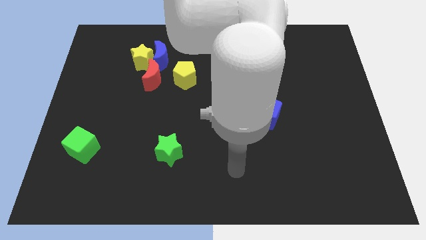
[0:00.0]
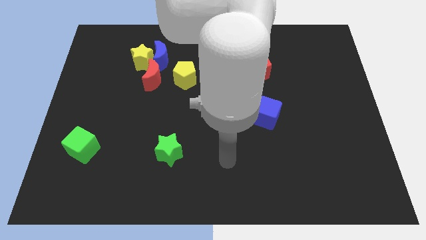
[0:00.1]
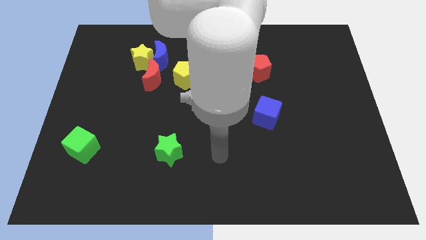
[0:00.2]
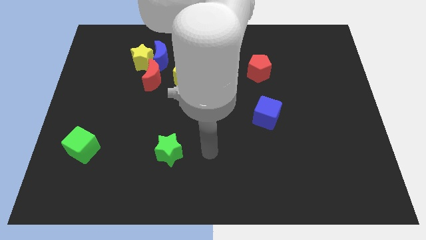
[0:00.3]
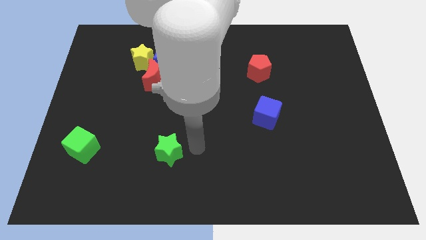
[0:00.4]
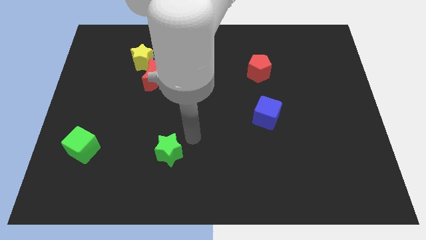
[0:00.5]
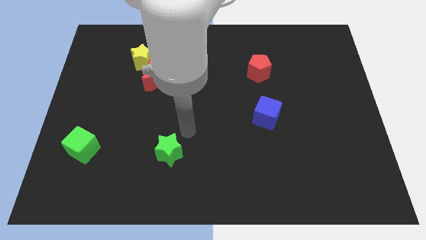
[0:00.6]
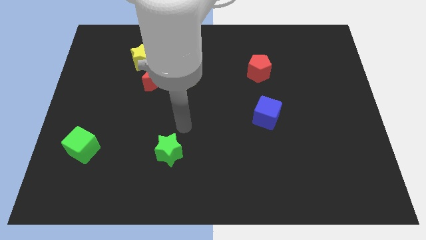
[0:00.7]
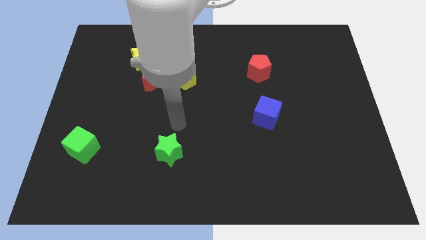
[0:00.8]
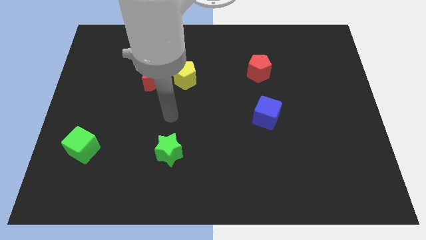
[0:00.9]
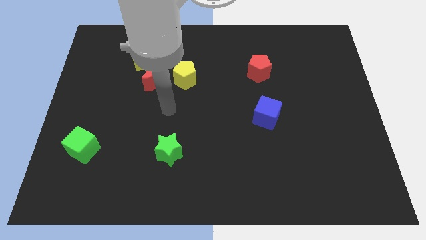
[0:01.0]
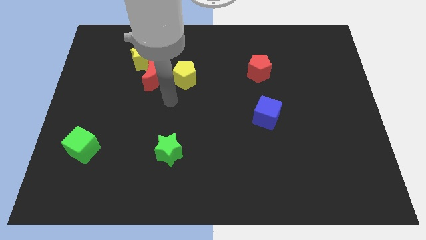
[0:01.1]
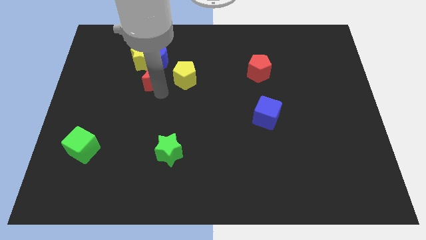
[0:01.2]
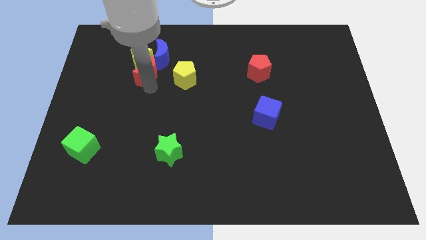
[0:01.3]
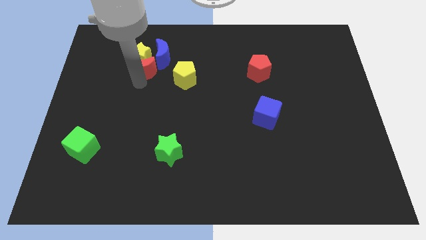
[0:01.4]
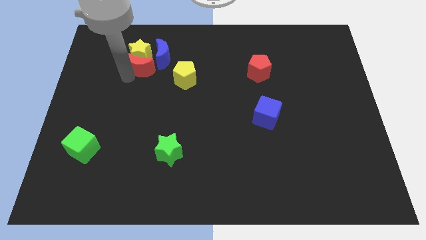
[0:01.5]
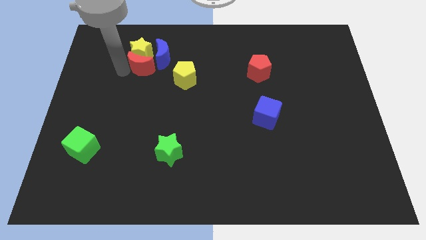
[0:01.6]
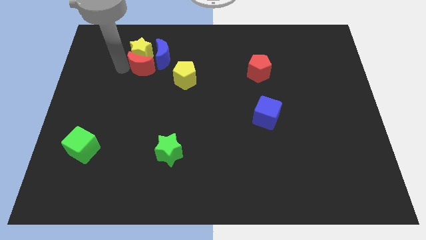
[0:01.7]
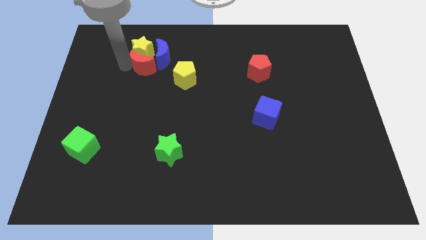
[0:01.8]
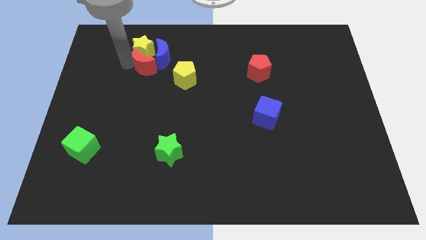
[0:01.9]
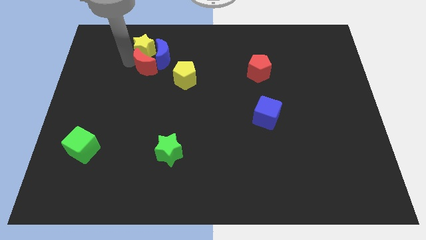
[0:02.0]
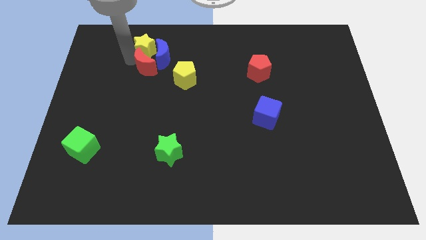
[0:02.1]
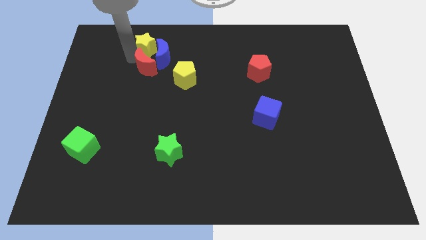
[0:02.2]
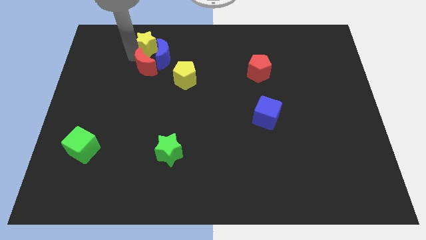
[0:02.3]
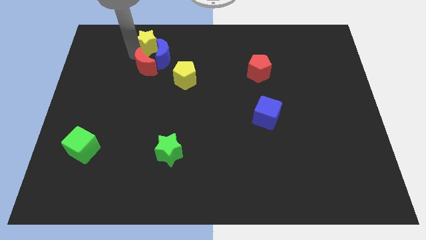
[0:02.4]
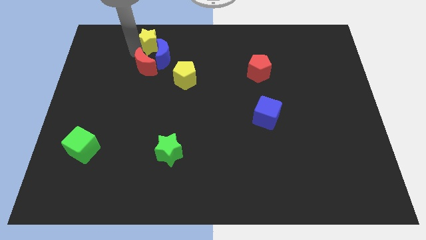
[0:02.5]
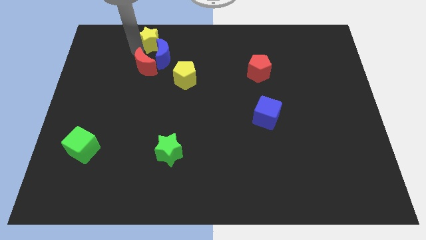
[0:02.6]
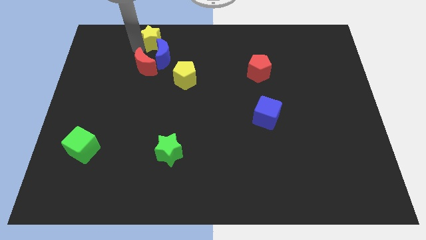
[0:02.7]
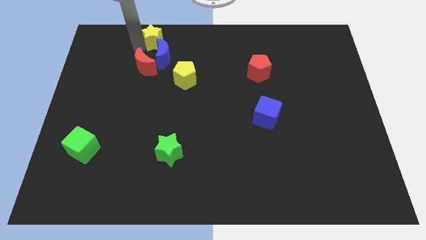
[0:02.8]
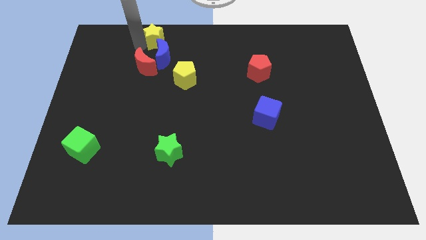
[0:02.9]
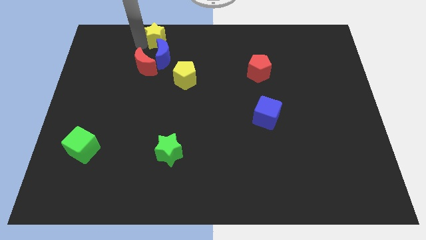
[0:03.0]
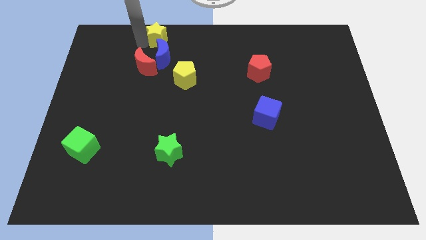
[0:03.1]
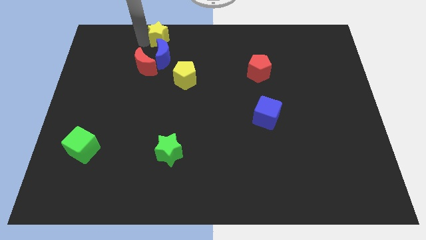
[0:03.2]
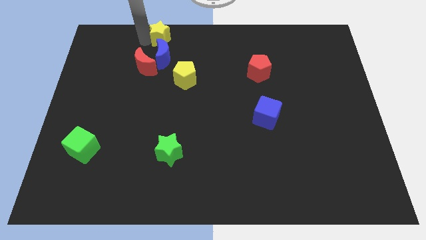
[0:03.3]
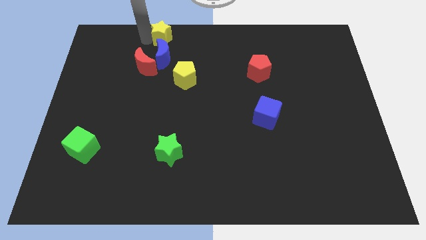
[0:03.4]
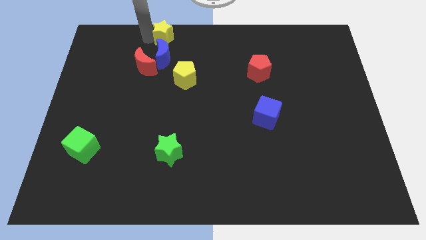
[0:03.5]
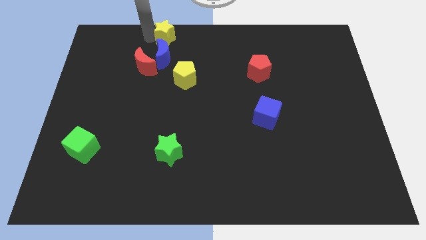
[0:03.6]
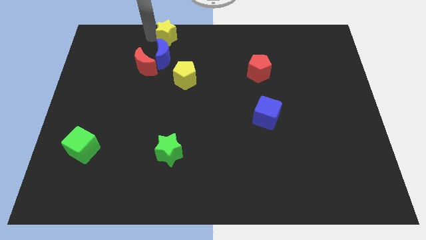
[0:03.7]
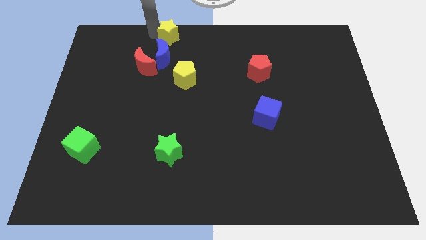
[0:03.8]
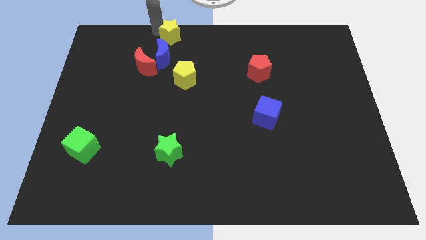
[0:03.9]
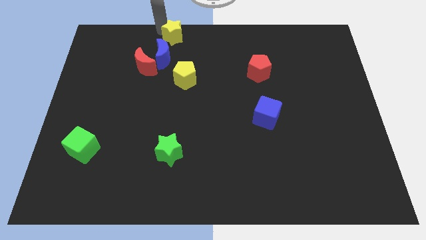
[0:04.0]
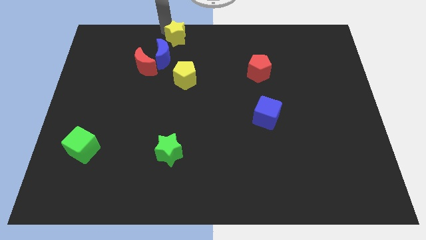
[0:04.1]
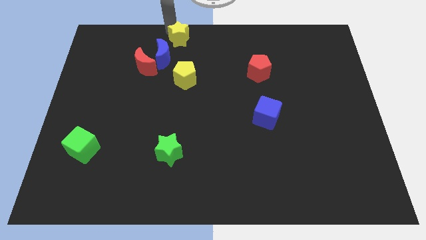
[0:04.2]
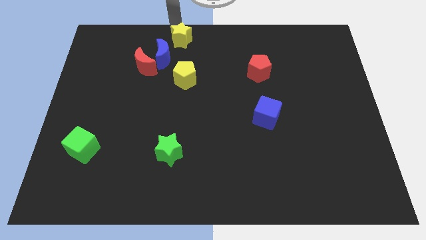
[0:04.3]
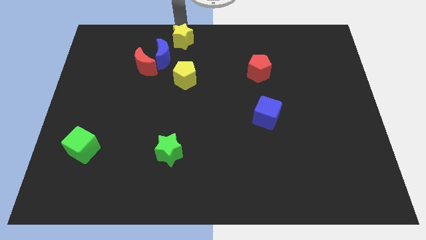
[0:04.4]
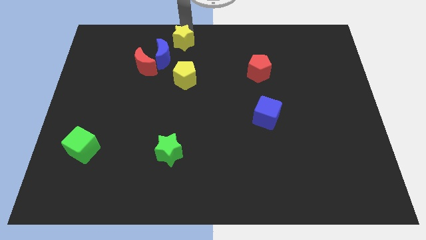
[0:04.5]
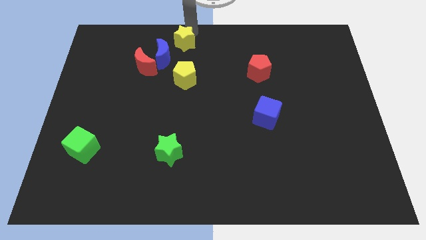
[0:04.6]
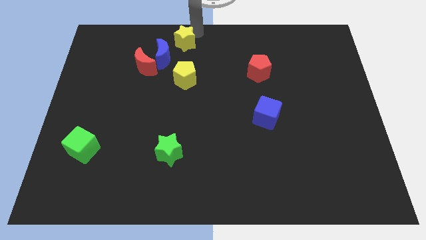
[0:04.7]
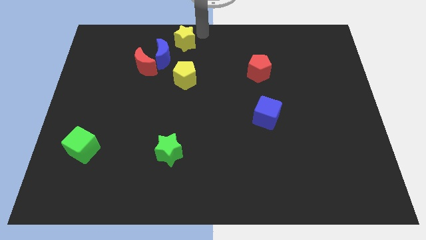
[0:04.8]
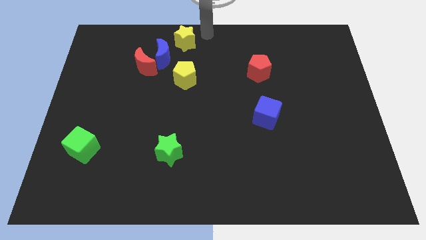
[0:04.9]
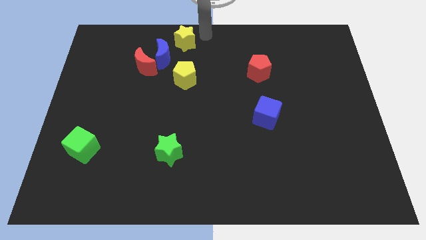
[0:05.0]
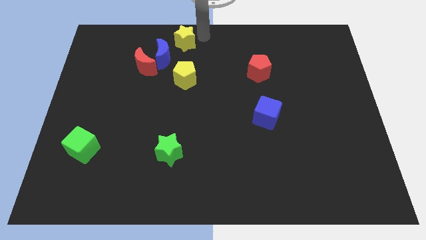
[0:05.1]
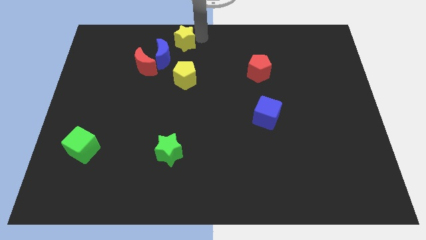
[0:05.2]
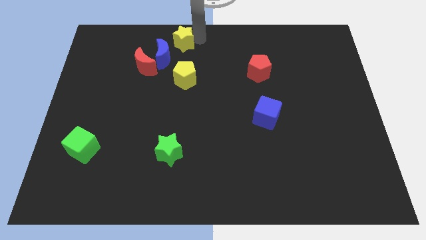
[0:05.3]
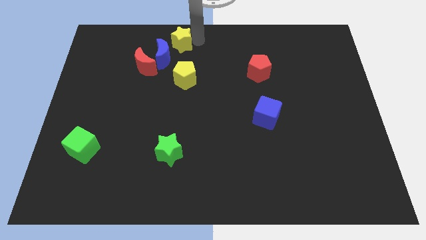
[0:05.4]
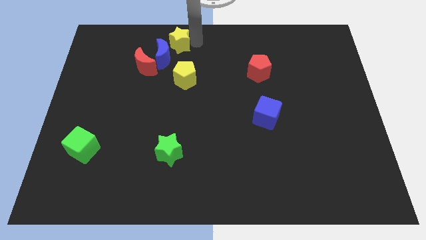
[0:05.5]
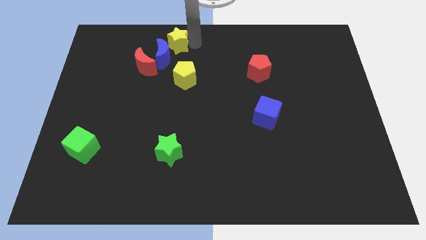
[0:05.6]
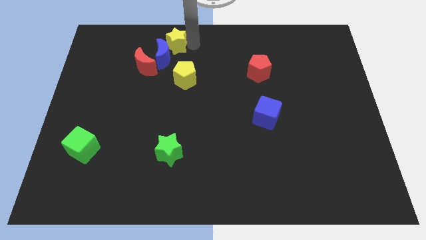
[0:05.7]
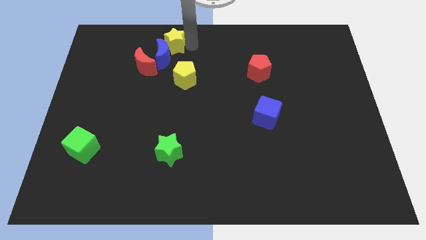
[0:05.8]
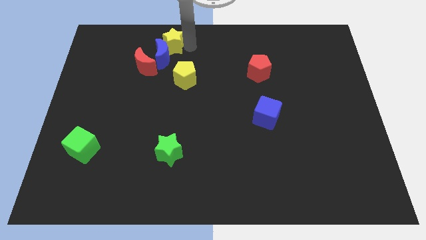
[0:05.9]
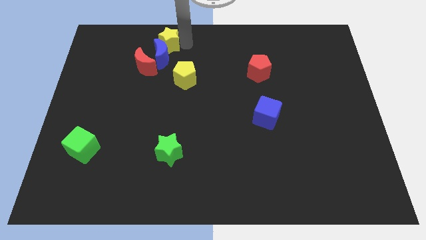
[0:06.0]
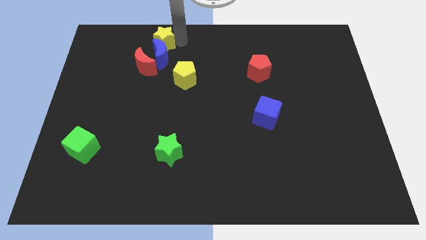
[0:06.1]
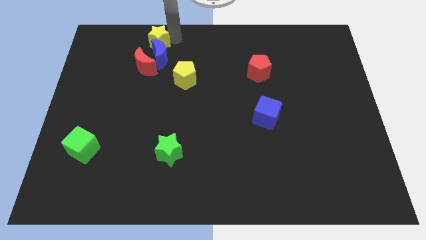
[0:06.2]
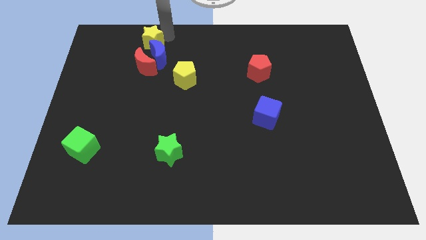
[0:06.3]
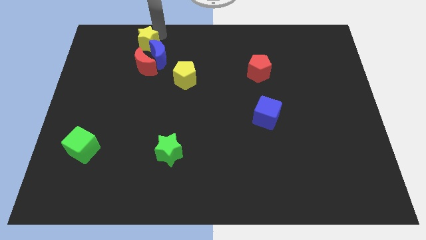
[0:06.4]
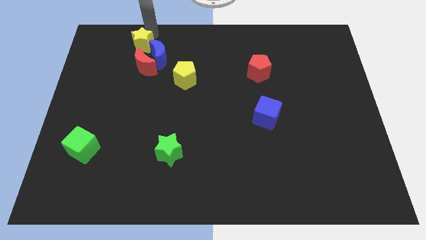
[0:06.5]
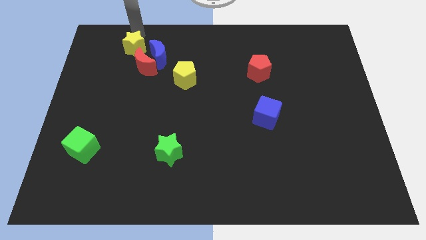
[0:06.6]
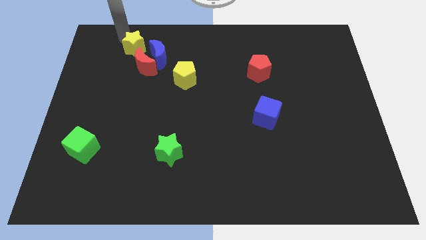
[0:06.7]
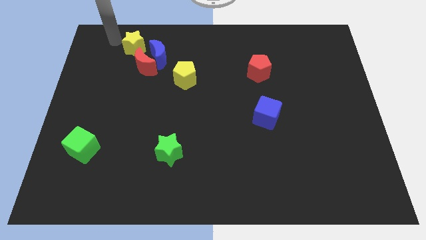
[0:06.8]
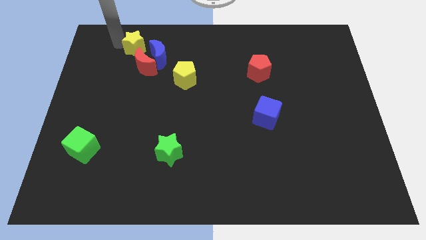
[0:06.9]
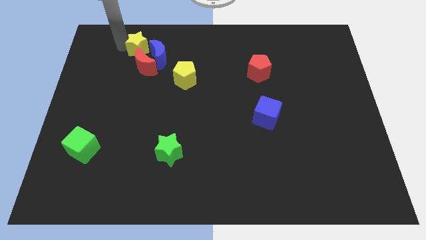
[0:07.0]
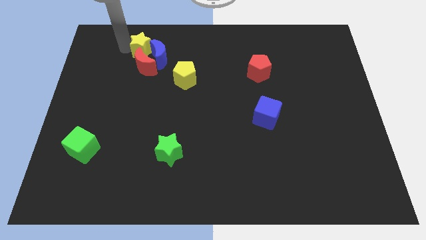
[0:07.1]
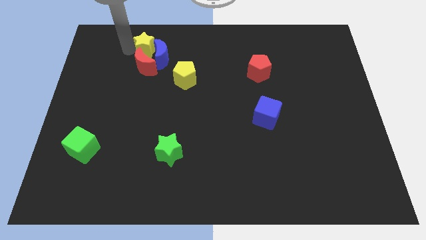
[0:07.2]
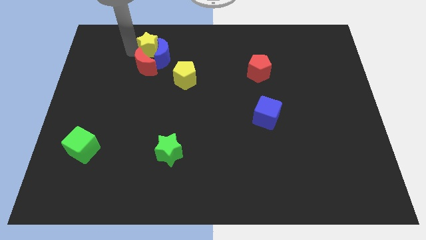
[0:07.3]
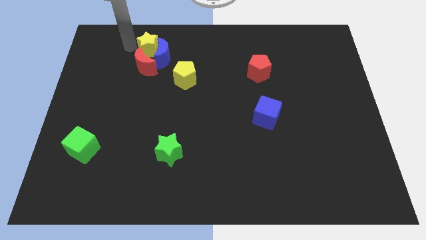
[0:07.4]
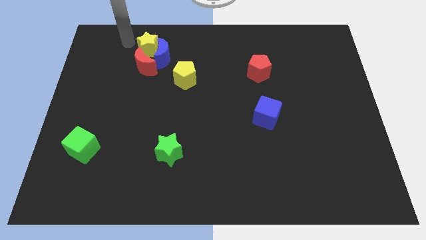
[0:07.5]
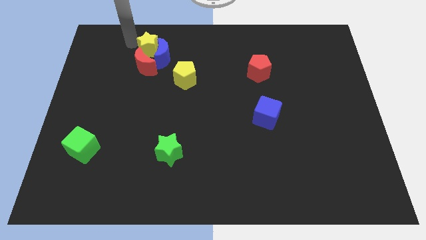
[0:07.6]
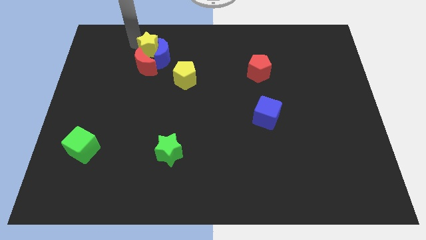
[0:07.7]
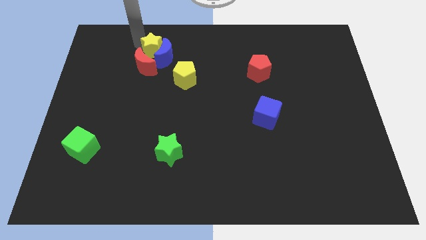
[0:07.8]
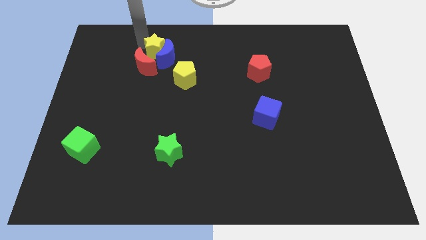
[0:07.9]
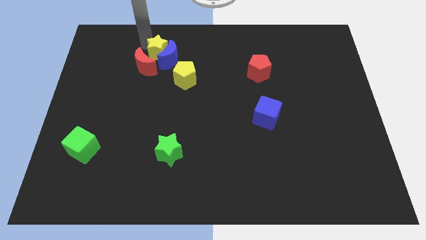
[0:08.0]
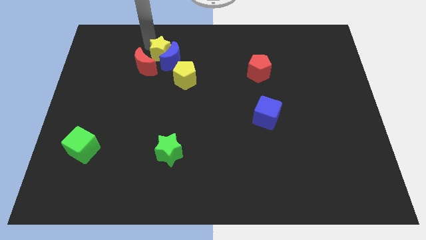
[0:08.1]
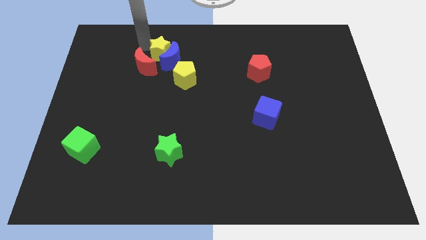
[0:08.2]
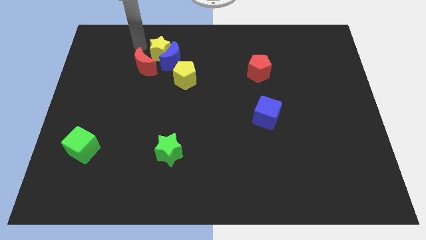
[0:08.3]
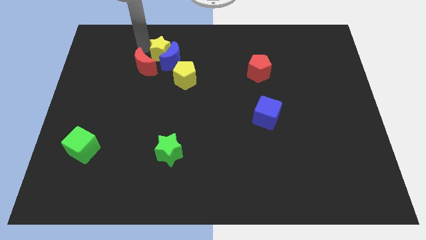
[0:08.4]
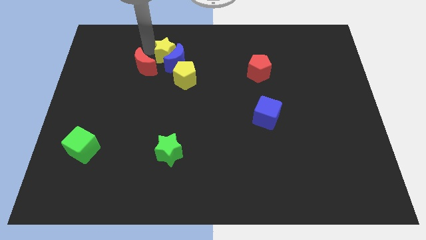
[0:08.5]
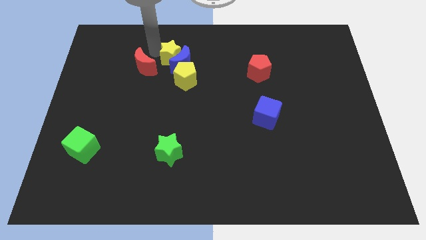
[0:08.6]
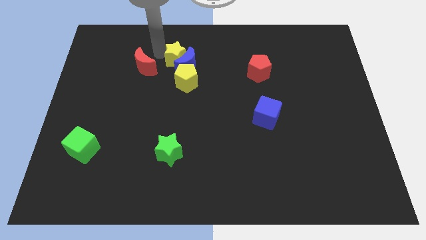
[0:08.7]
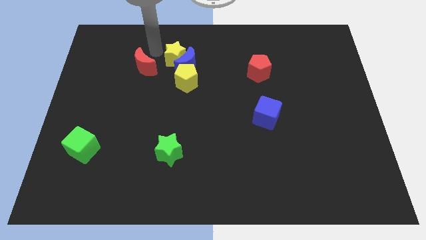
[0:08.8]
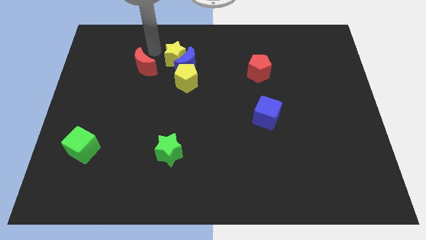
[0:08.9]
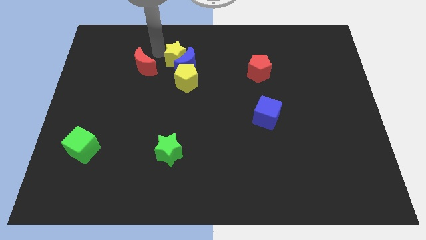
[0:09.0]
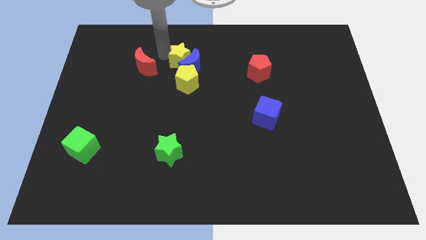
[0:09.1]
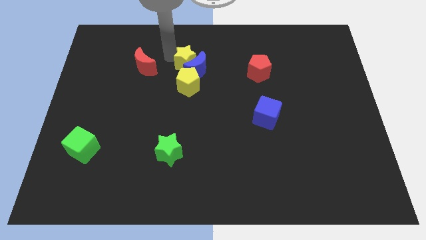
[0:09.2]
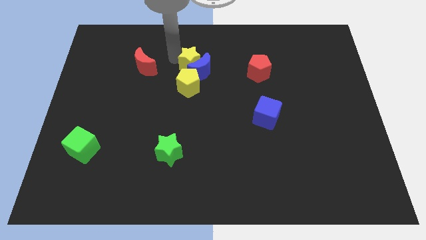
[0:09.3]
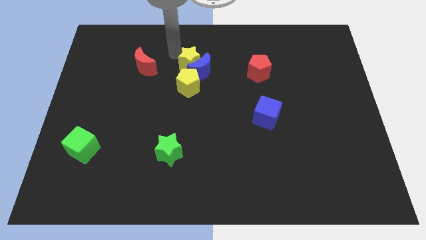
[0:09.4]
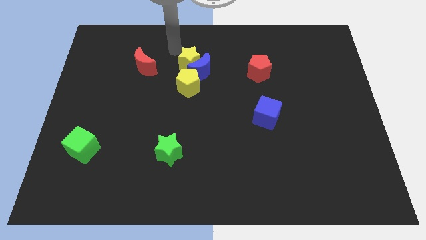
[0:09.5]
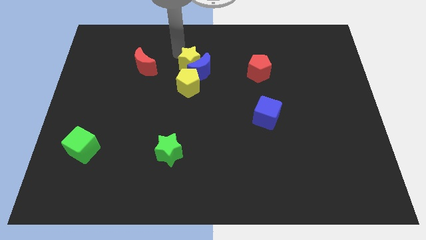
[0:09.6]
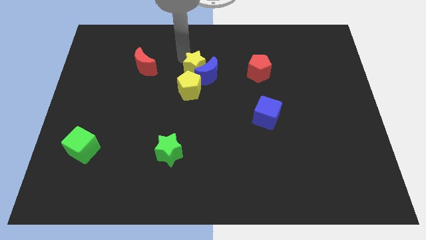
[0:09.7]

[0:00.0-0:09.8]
slide the yellow star to the middle of the board
